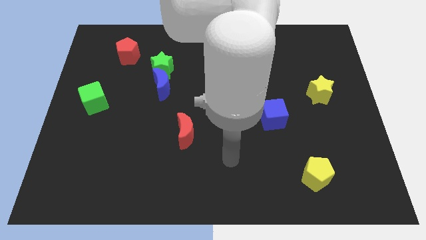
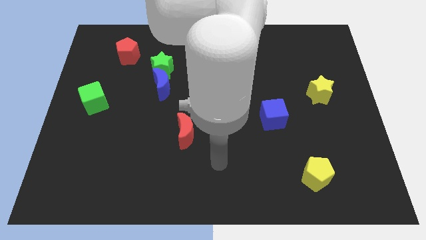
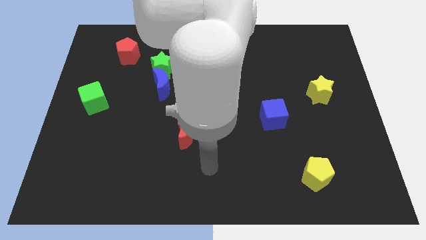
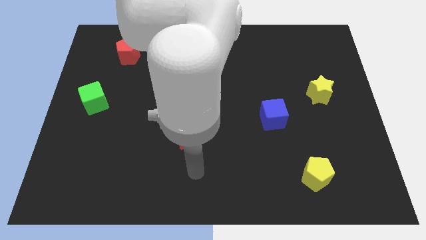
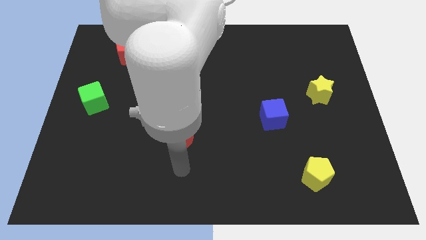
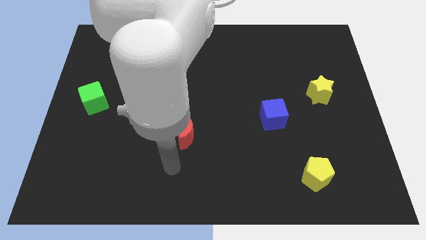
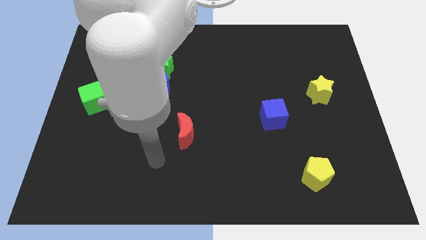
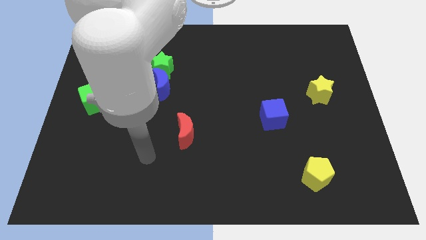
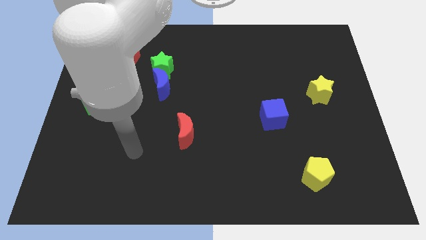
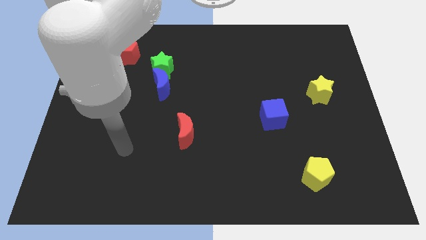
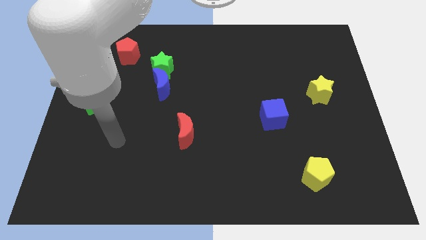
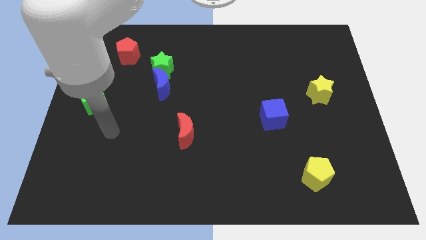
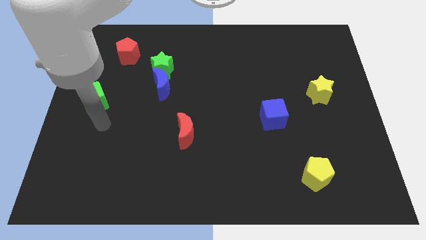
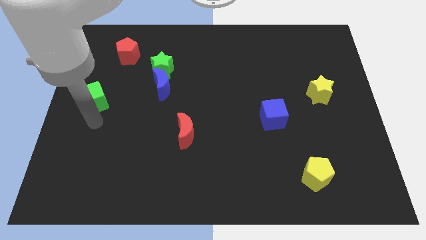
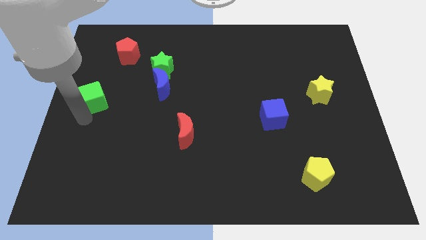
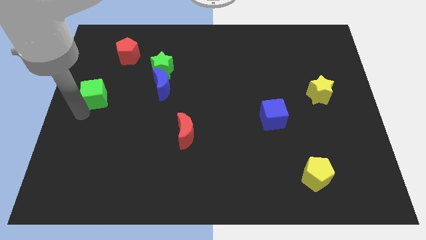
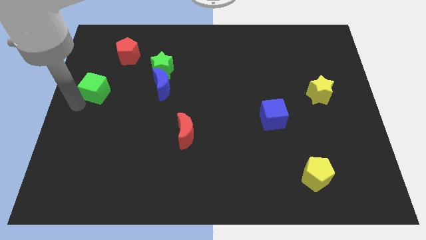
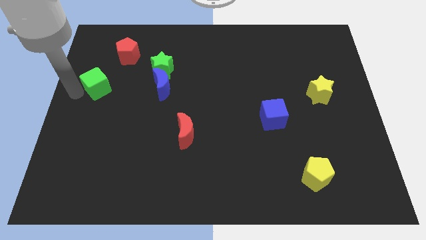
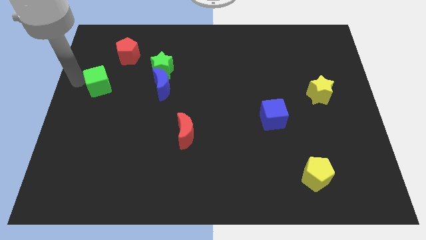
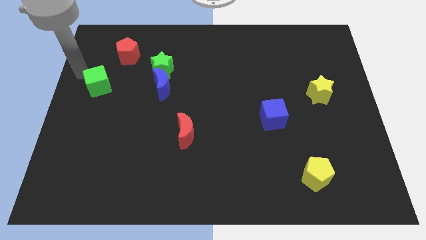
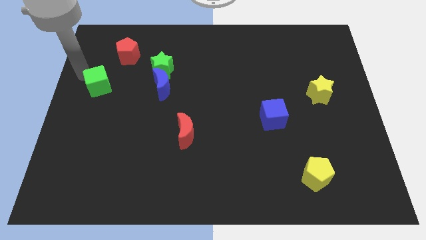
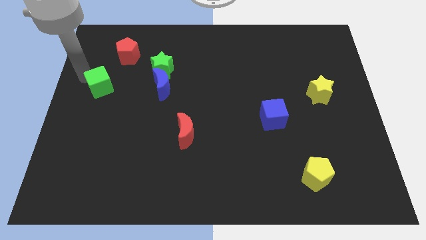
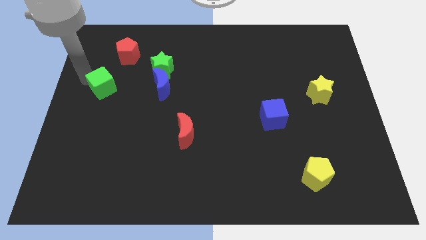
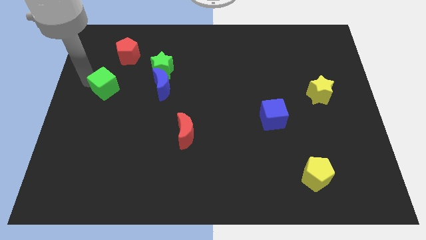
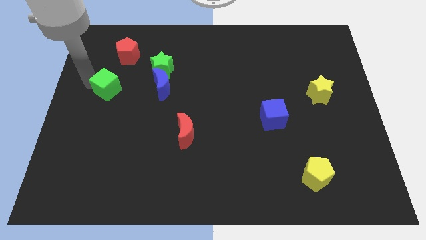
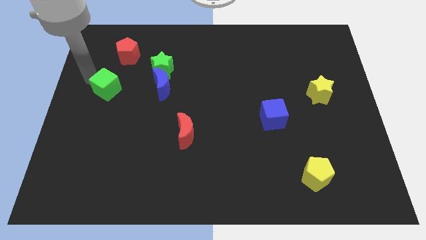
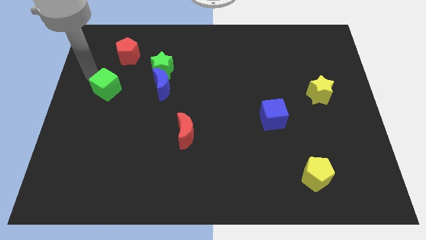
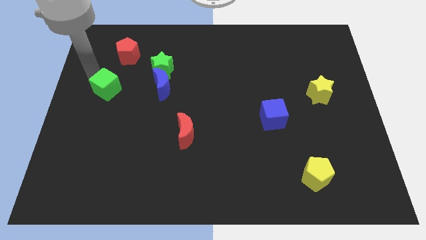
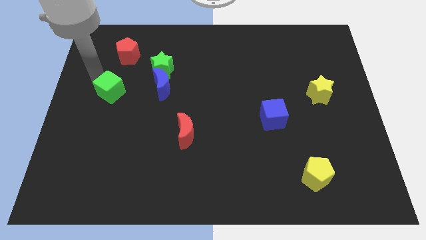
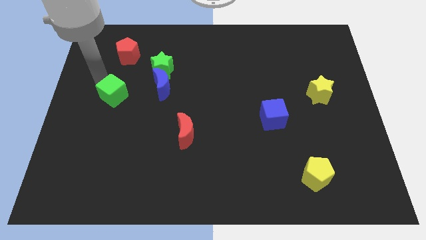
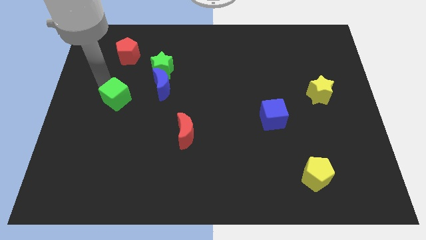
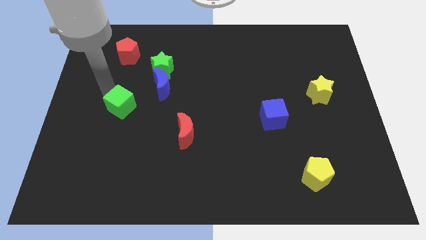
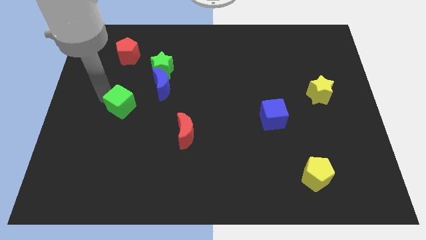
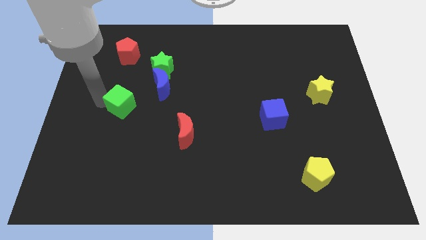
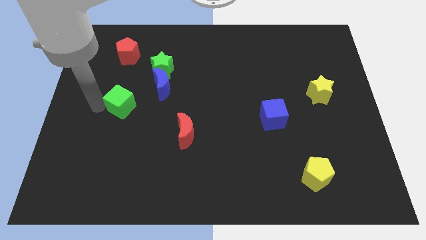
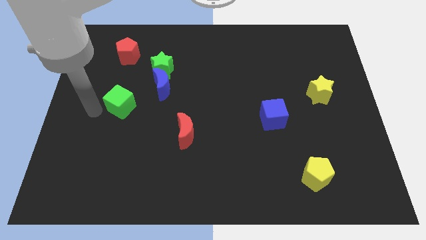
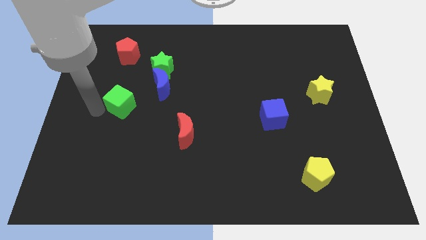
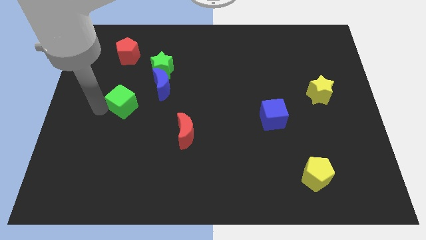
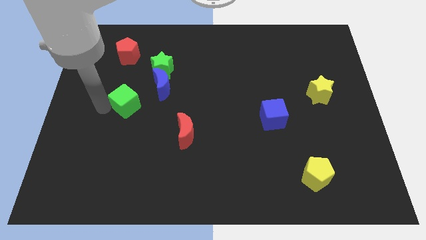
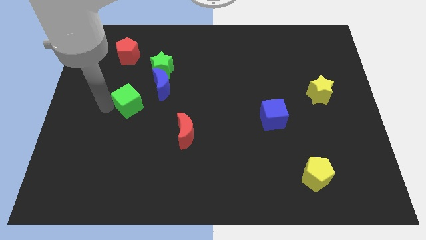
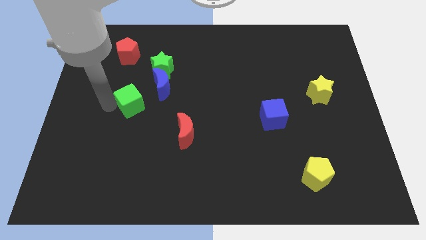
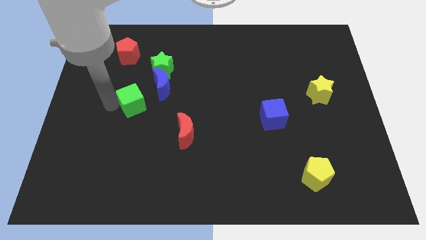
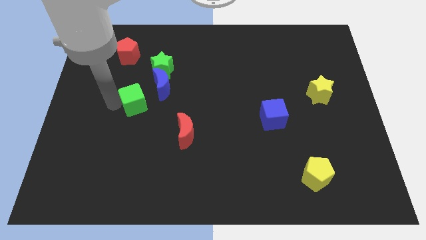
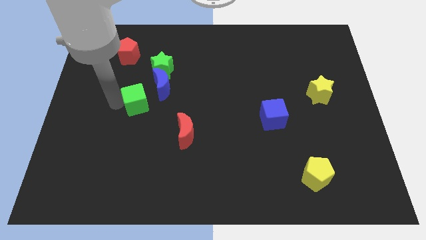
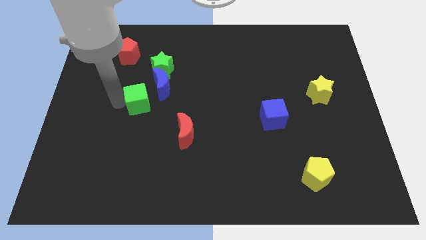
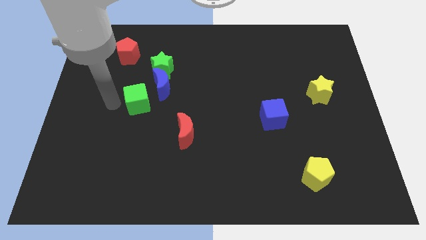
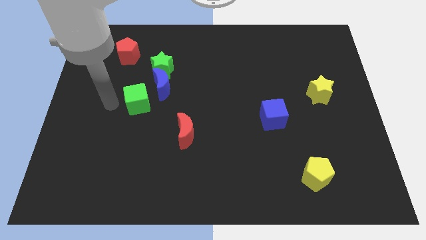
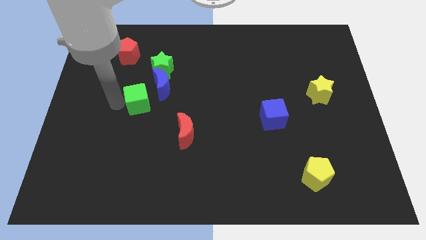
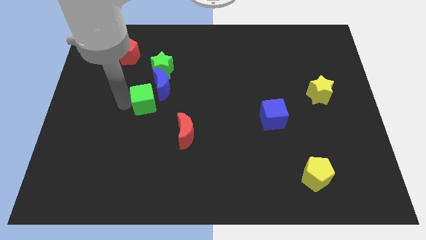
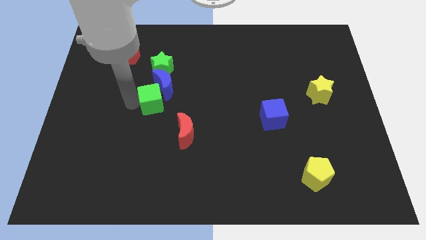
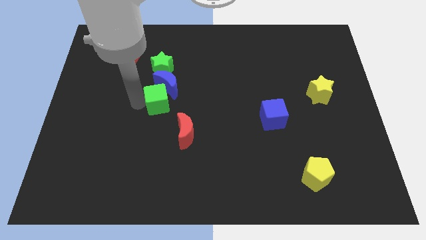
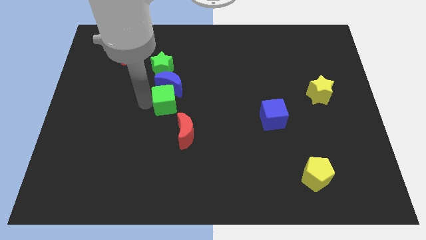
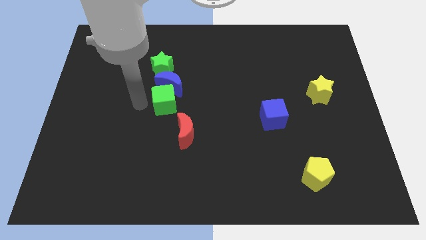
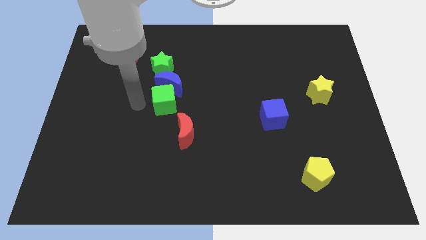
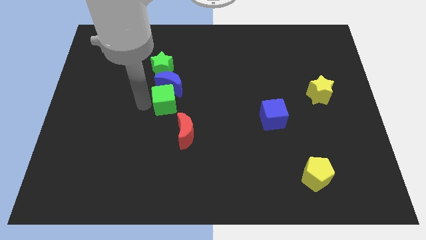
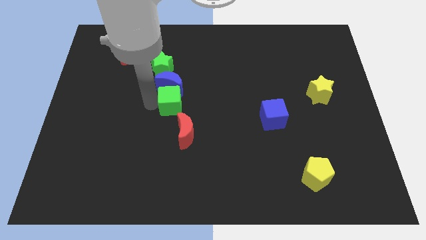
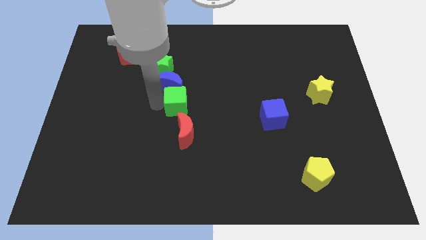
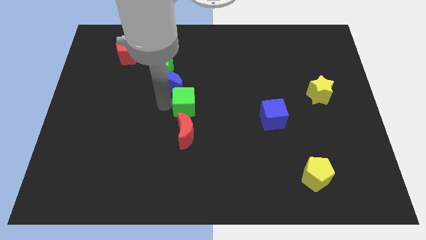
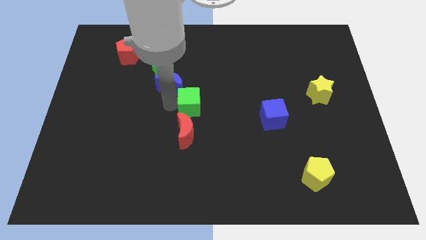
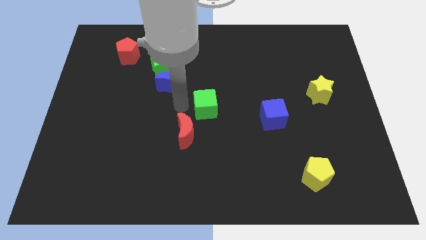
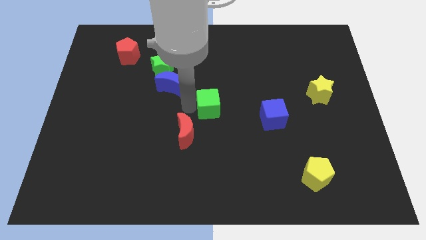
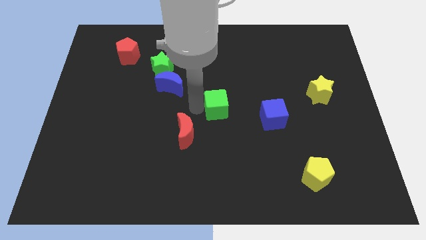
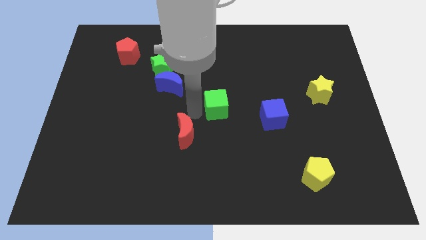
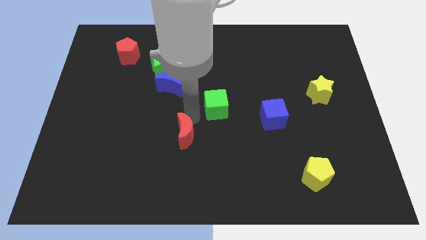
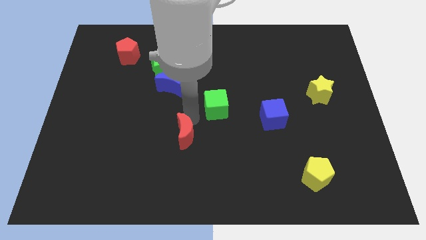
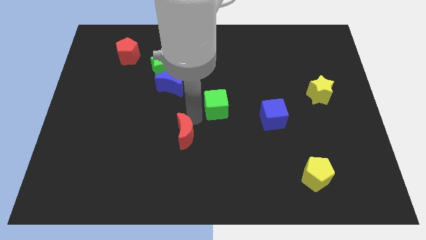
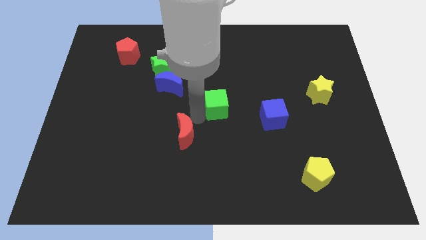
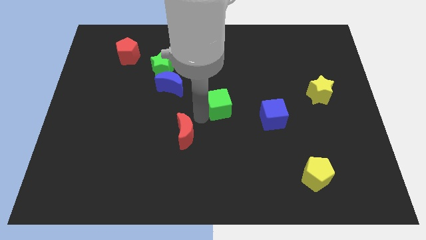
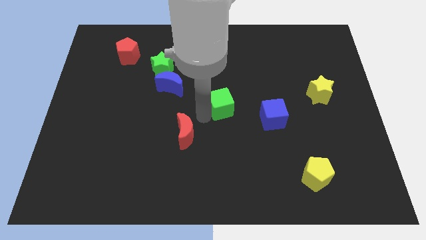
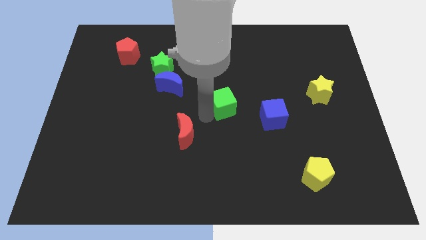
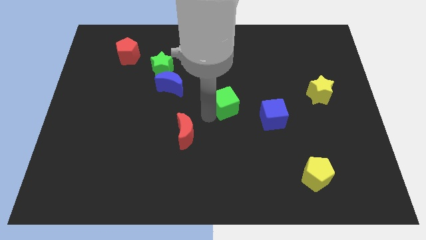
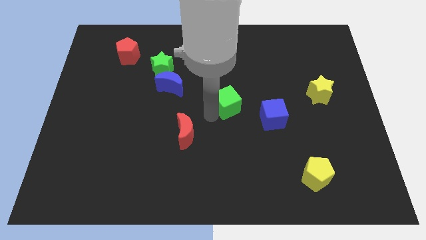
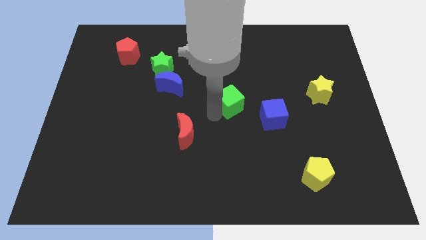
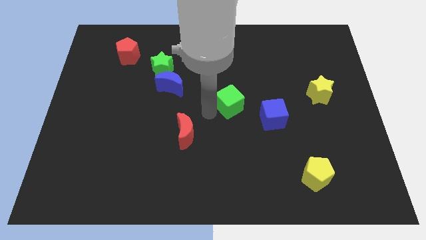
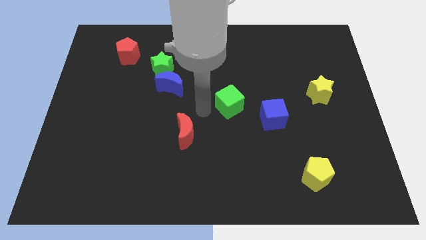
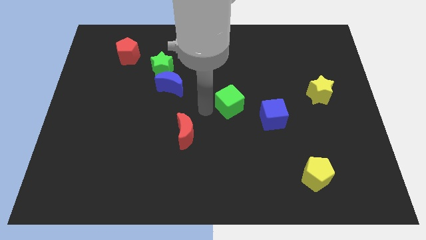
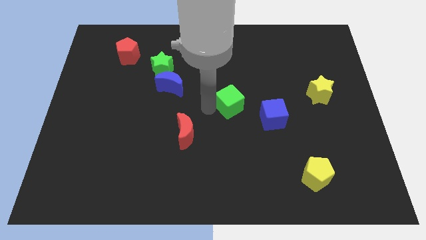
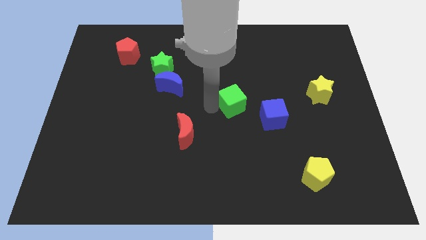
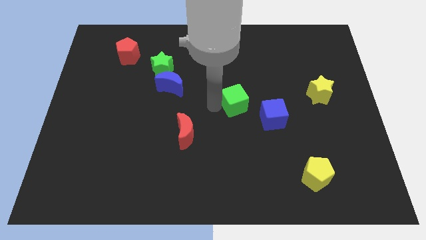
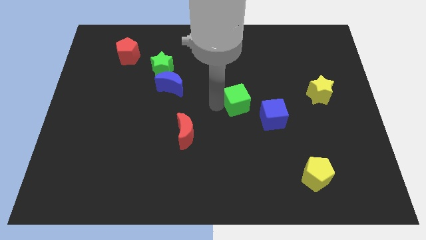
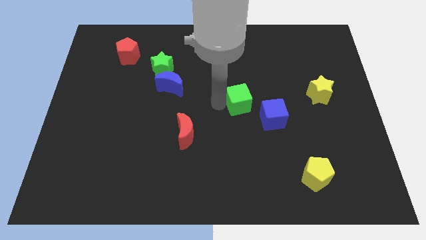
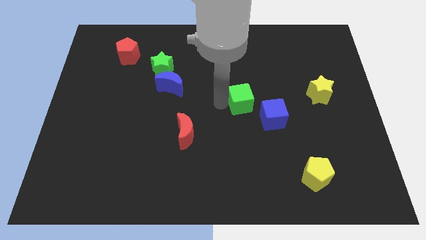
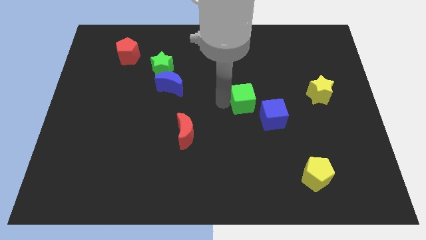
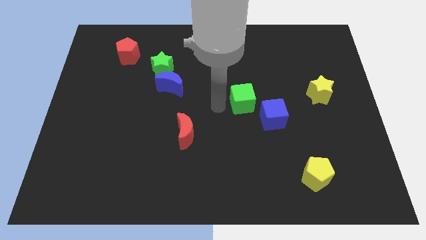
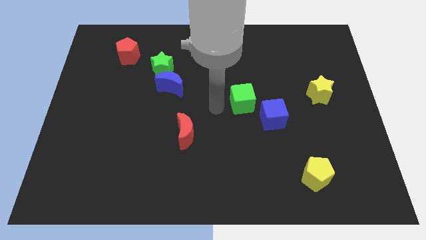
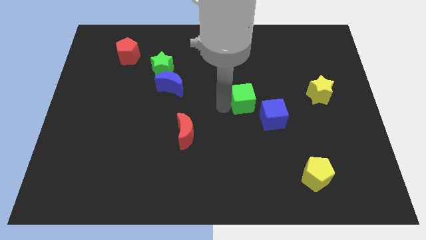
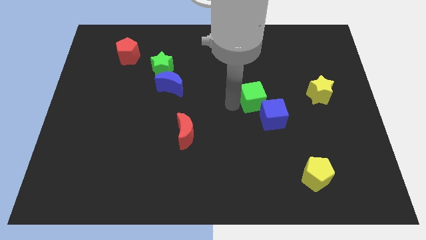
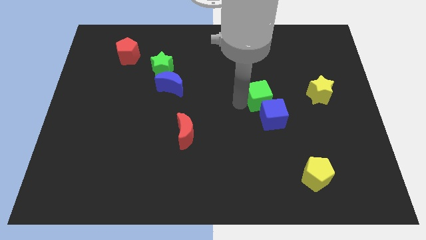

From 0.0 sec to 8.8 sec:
put the green cube to the left side of the yellow star
